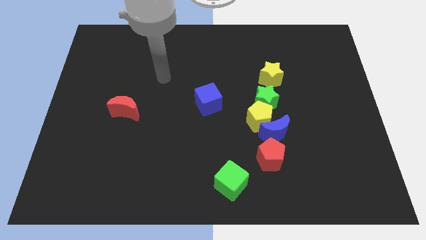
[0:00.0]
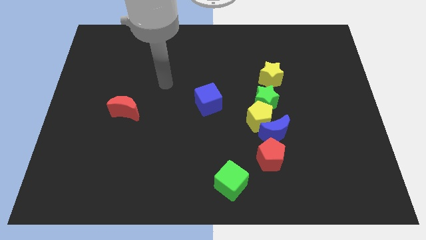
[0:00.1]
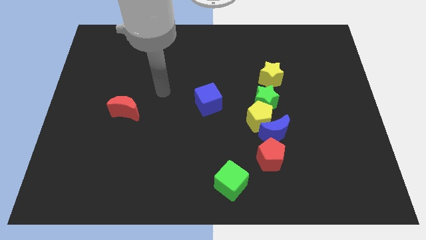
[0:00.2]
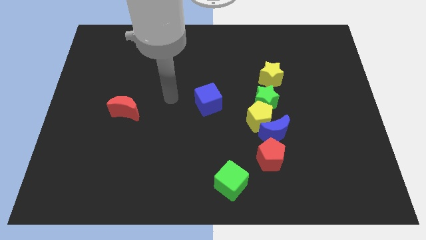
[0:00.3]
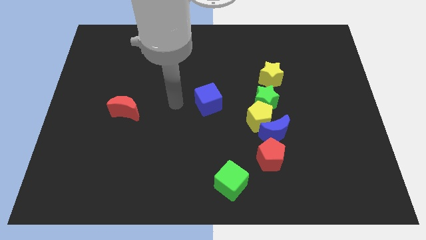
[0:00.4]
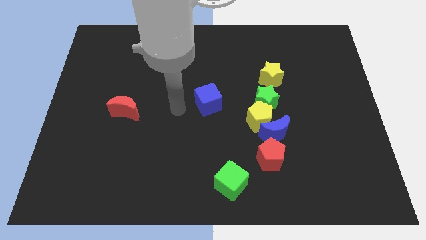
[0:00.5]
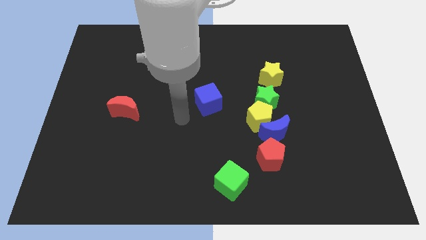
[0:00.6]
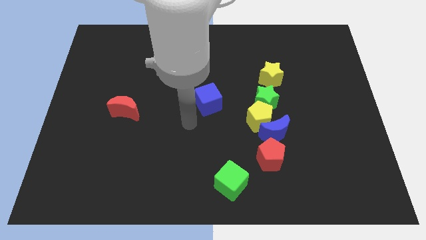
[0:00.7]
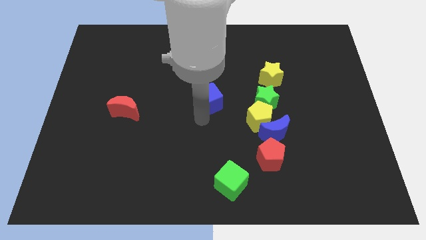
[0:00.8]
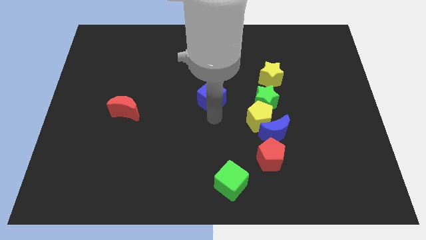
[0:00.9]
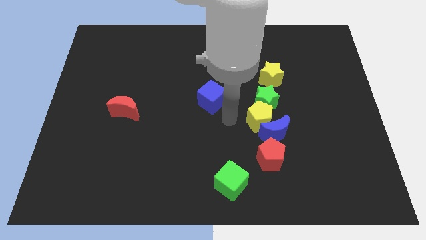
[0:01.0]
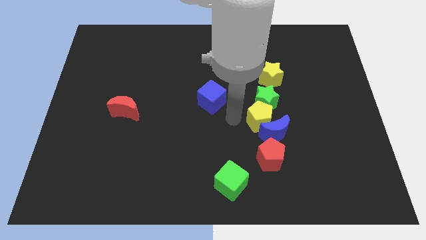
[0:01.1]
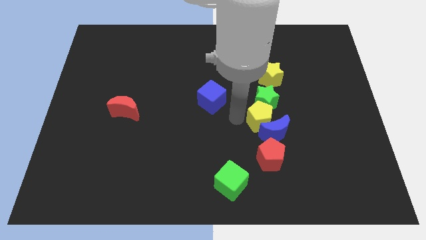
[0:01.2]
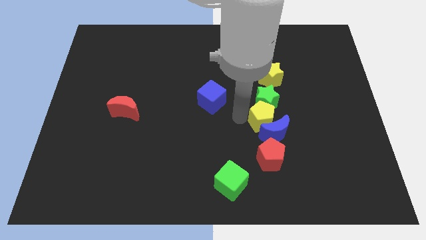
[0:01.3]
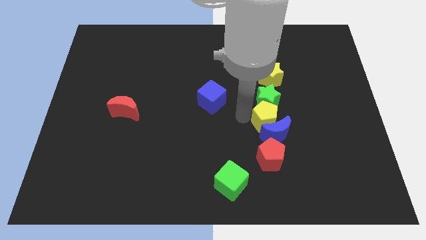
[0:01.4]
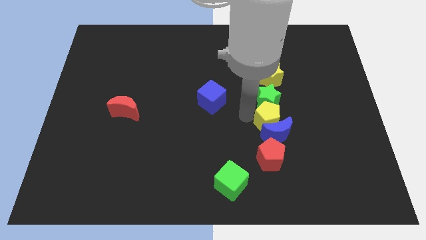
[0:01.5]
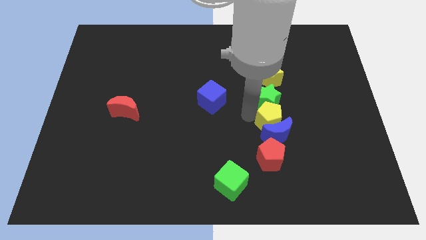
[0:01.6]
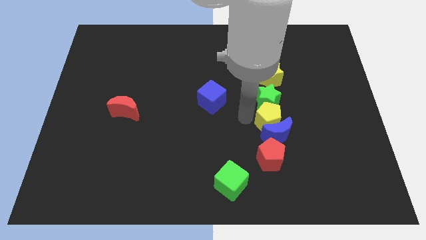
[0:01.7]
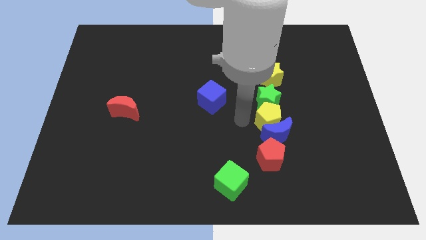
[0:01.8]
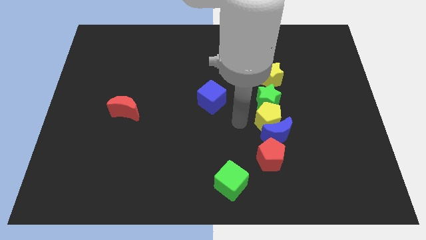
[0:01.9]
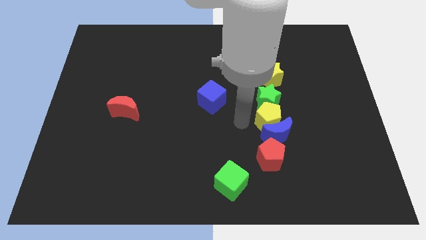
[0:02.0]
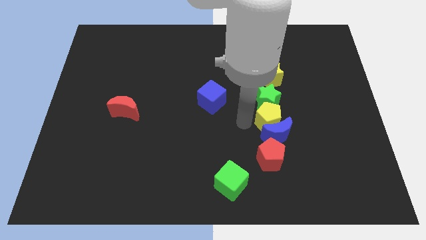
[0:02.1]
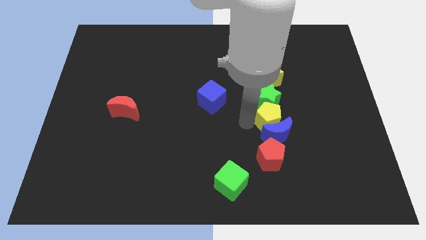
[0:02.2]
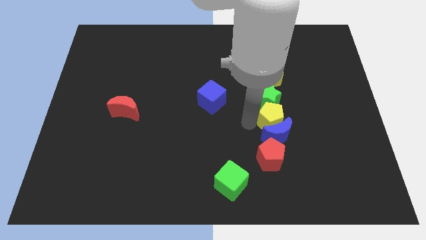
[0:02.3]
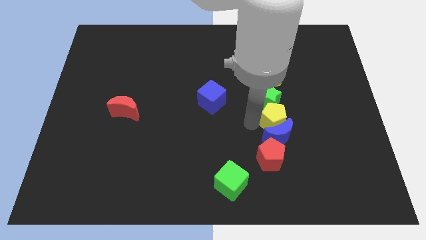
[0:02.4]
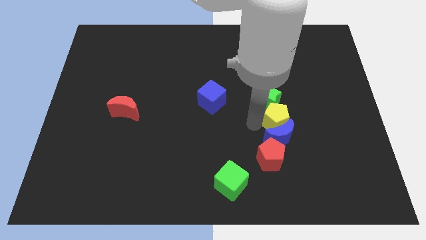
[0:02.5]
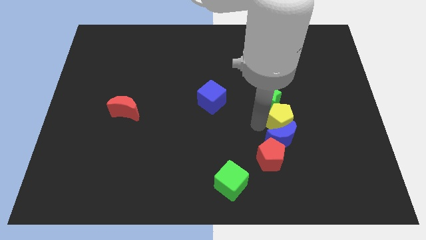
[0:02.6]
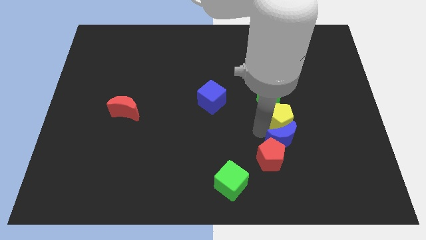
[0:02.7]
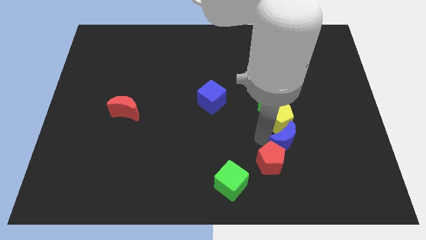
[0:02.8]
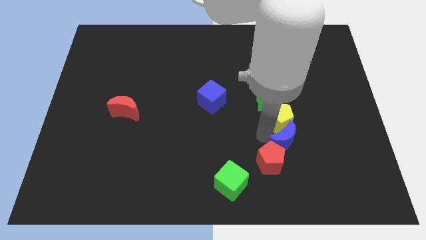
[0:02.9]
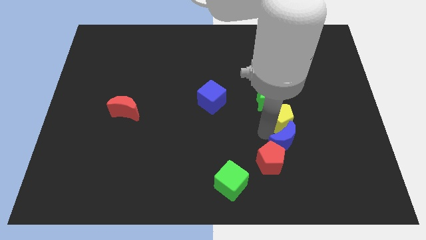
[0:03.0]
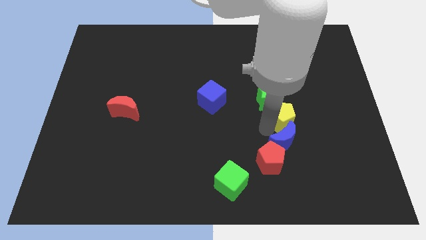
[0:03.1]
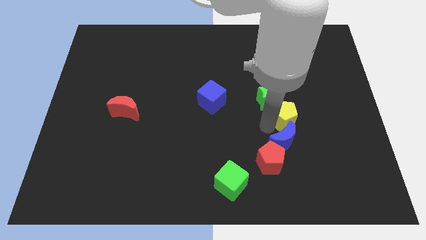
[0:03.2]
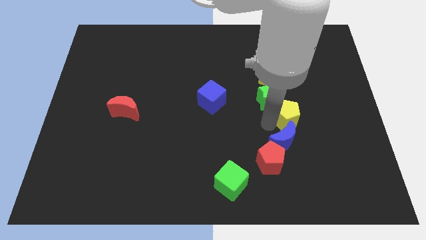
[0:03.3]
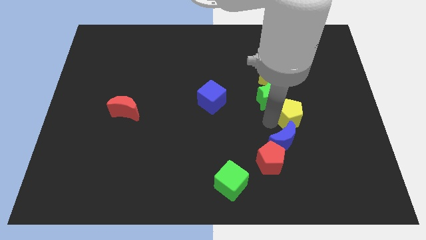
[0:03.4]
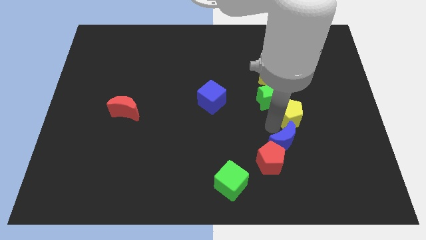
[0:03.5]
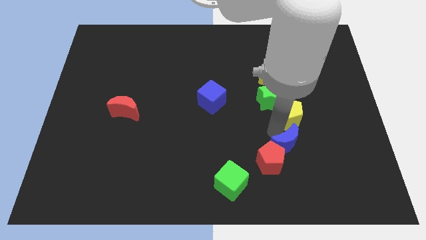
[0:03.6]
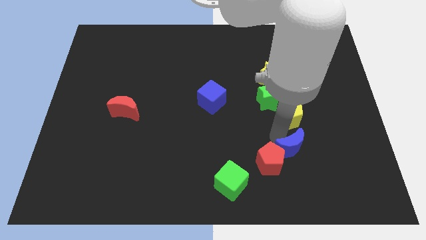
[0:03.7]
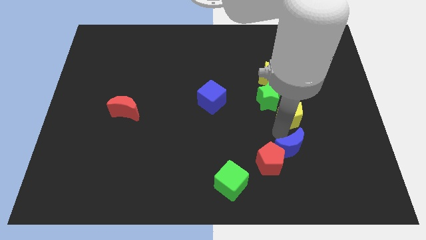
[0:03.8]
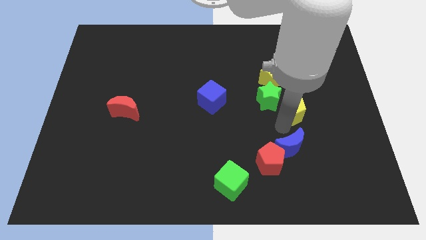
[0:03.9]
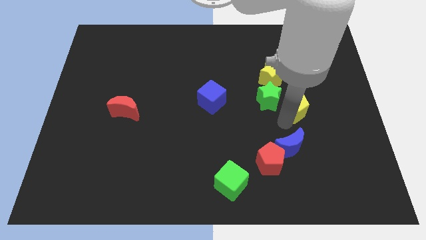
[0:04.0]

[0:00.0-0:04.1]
slide the yellow pentagon diagonally up and right a bit

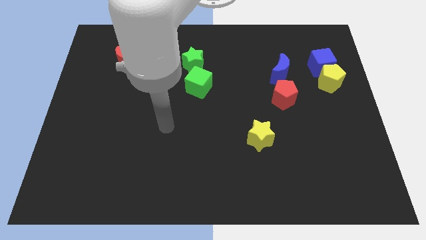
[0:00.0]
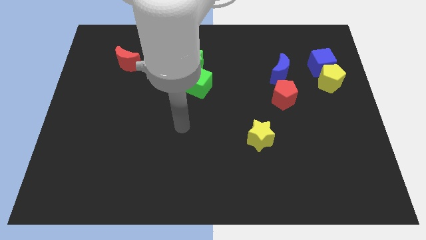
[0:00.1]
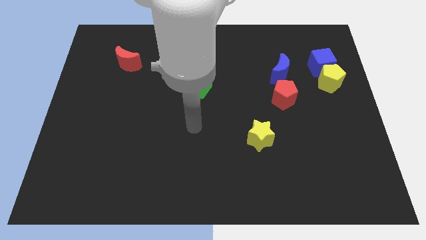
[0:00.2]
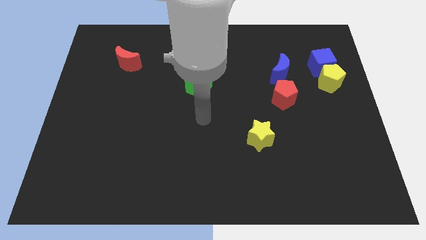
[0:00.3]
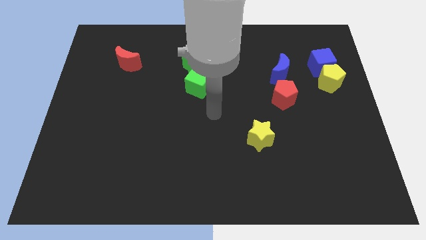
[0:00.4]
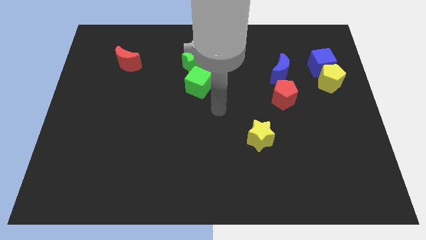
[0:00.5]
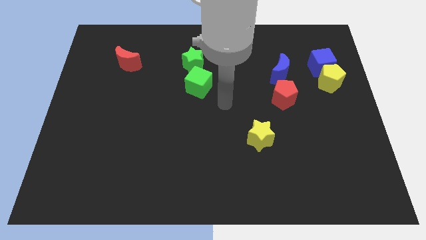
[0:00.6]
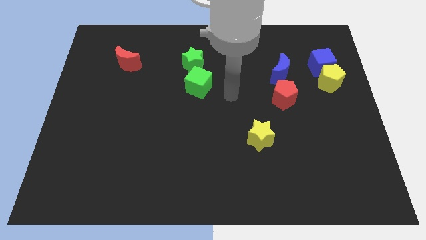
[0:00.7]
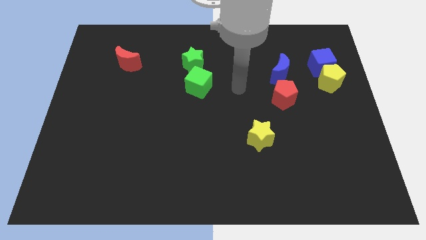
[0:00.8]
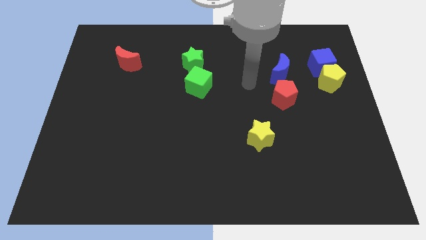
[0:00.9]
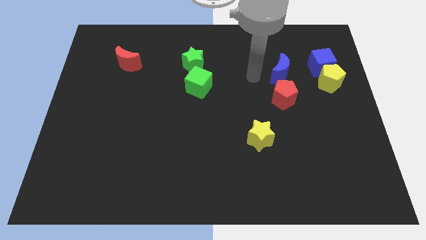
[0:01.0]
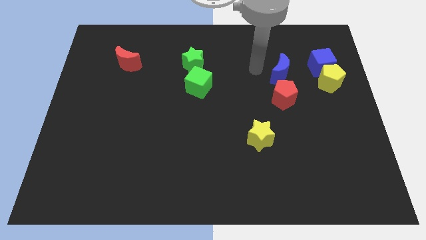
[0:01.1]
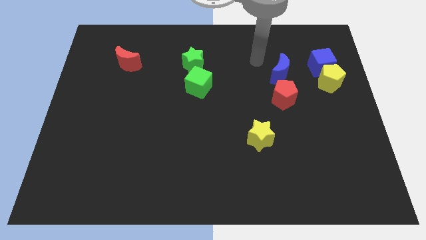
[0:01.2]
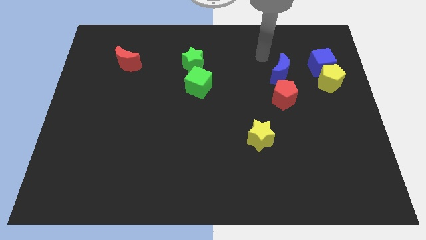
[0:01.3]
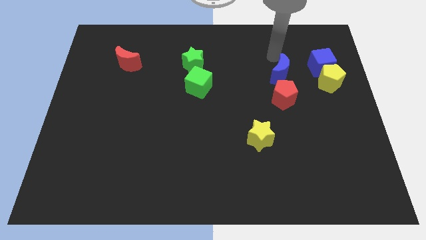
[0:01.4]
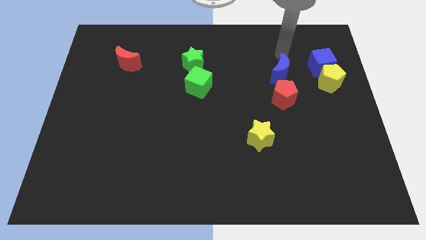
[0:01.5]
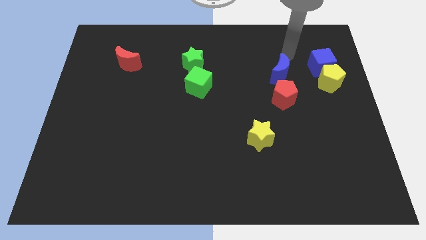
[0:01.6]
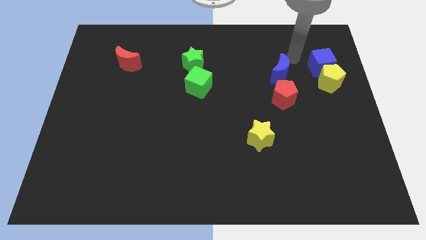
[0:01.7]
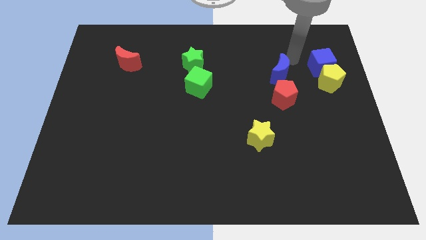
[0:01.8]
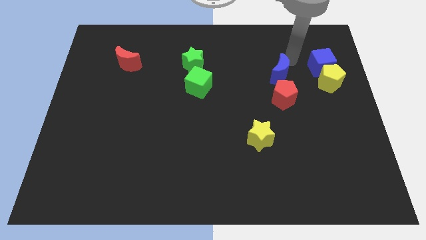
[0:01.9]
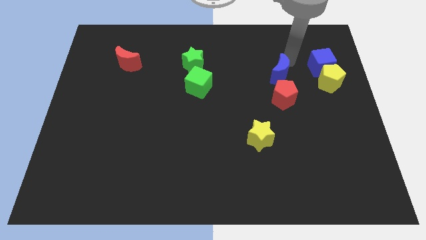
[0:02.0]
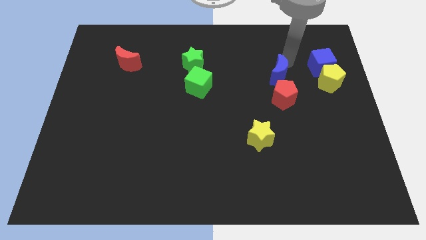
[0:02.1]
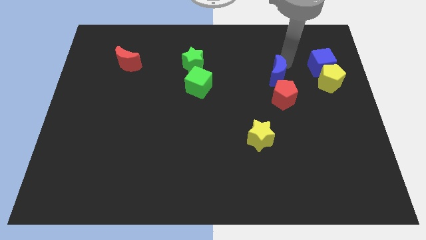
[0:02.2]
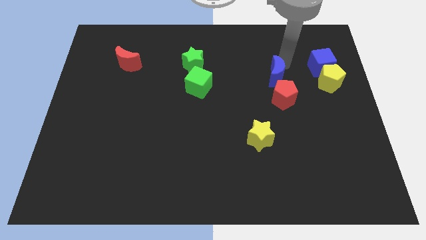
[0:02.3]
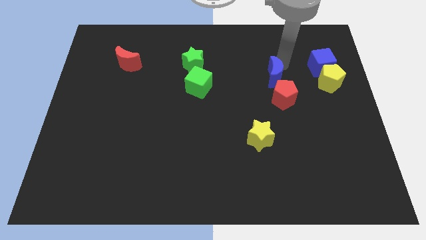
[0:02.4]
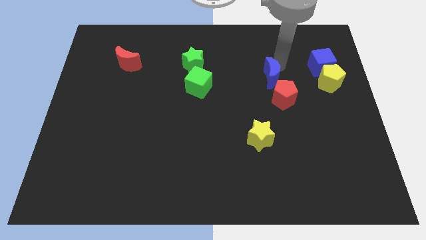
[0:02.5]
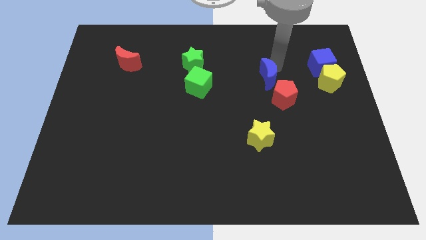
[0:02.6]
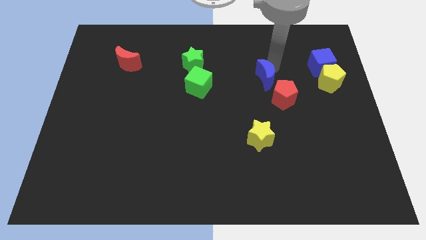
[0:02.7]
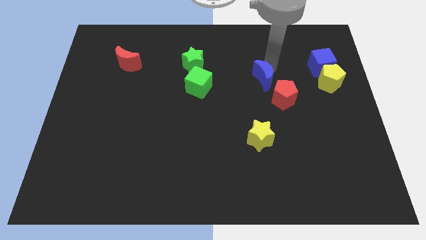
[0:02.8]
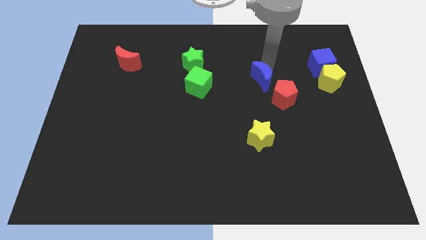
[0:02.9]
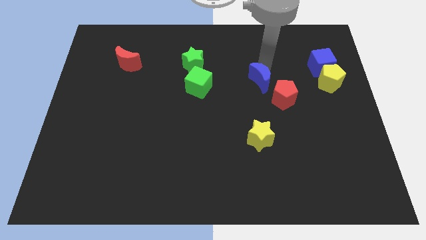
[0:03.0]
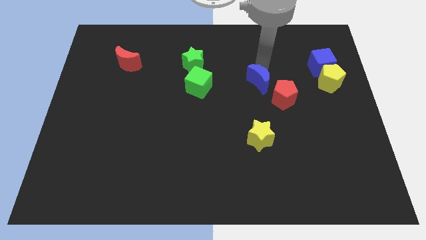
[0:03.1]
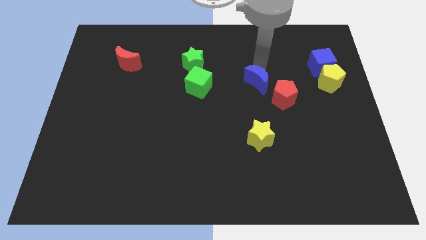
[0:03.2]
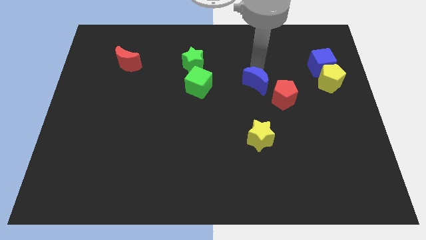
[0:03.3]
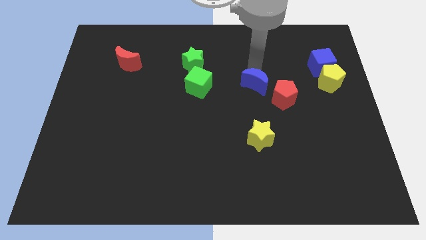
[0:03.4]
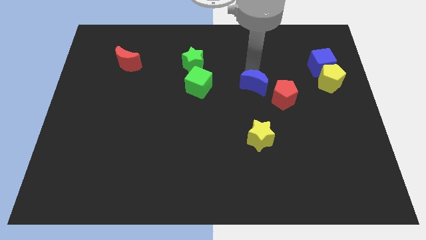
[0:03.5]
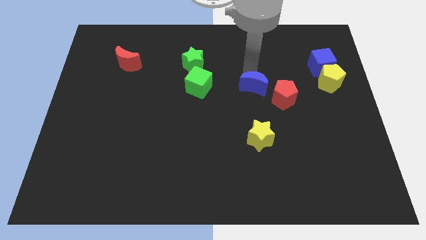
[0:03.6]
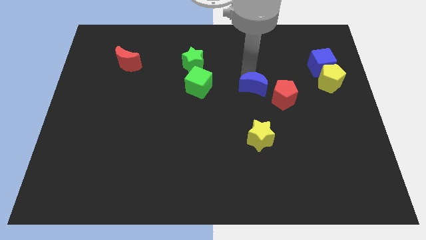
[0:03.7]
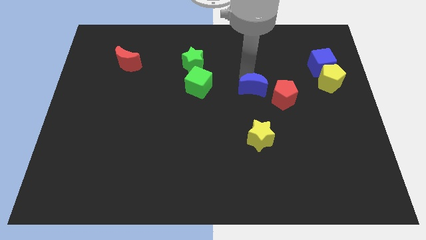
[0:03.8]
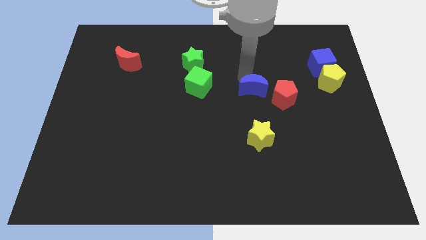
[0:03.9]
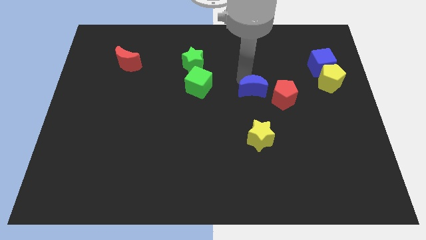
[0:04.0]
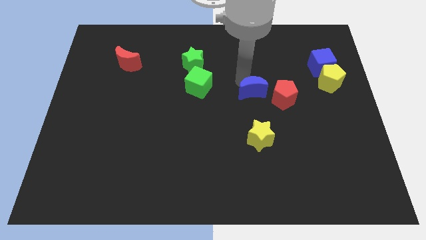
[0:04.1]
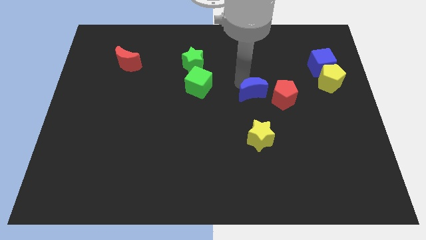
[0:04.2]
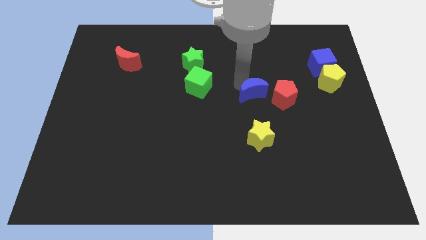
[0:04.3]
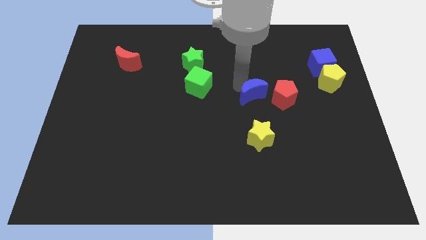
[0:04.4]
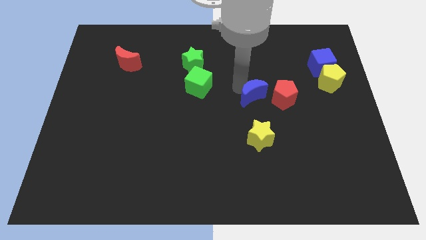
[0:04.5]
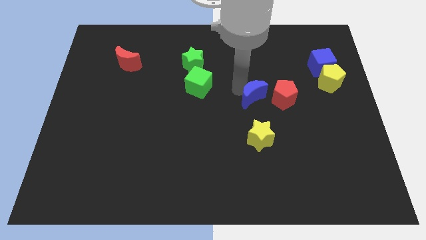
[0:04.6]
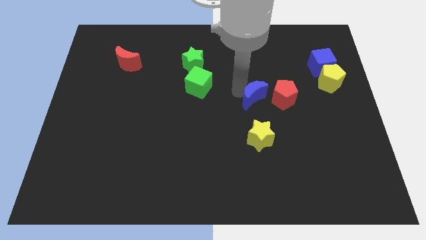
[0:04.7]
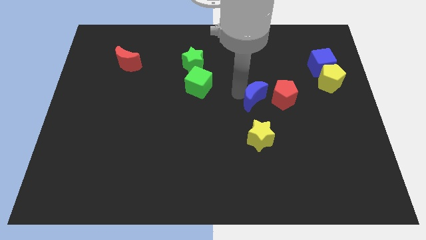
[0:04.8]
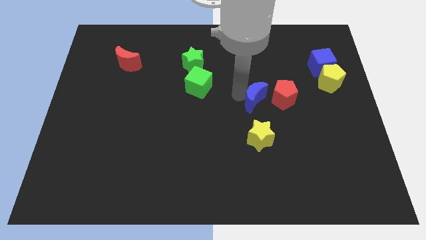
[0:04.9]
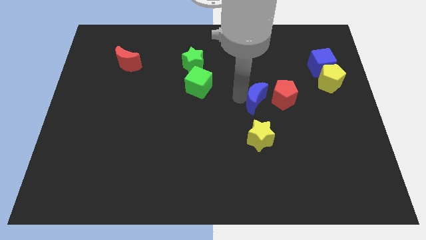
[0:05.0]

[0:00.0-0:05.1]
slide the blue moon a bit downwards
